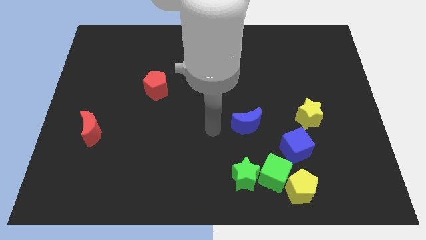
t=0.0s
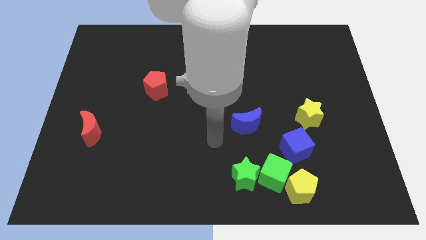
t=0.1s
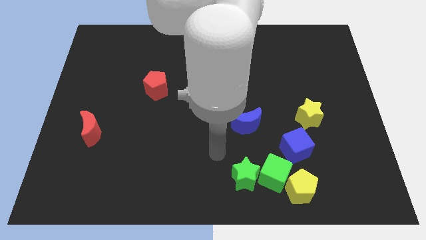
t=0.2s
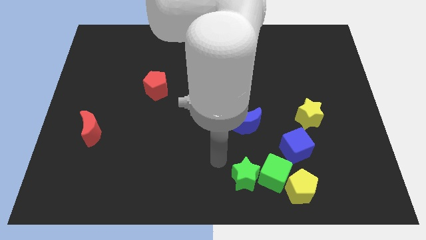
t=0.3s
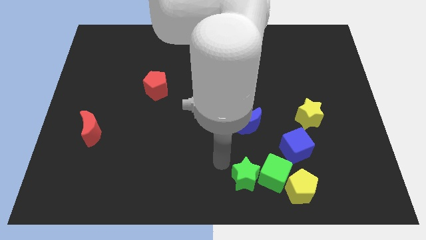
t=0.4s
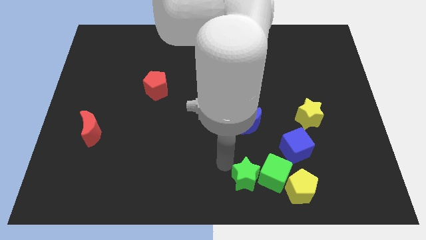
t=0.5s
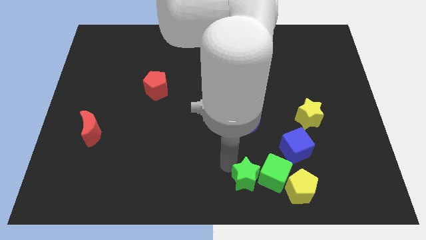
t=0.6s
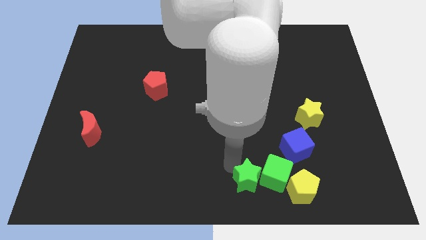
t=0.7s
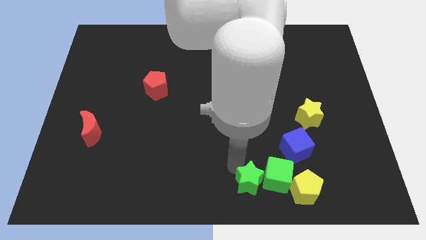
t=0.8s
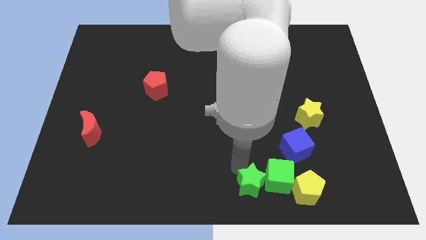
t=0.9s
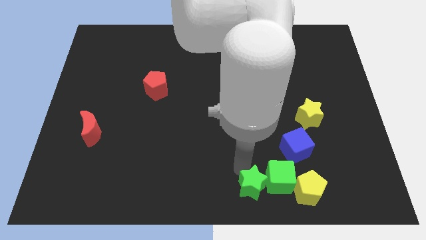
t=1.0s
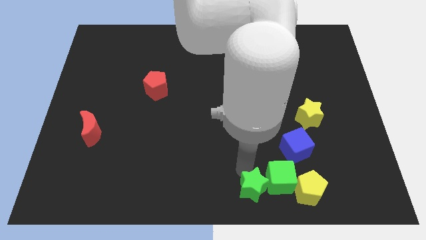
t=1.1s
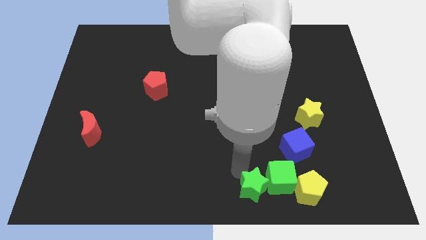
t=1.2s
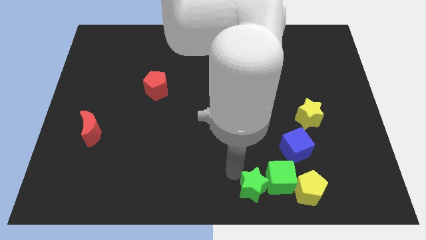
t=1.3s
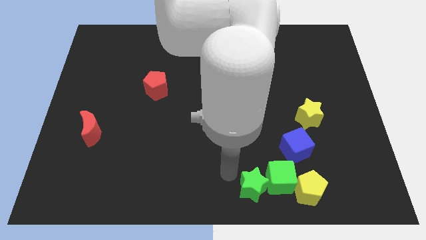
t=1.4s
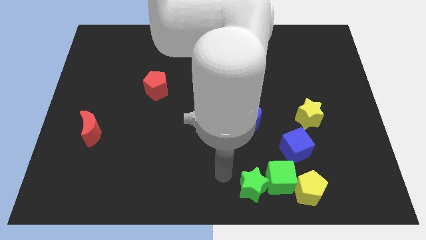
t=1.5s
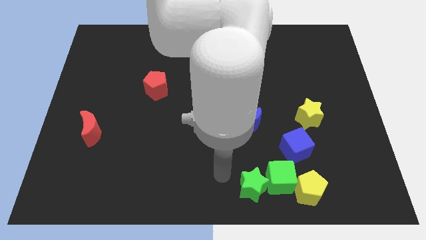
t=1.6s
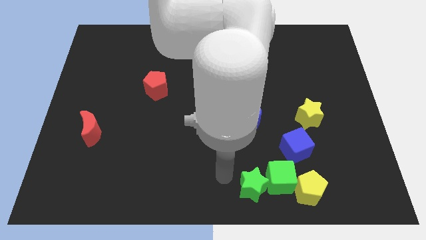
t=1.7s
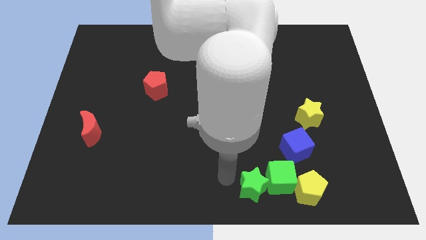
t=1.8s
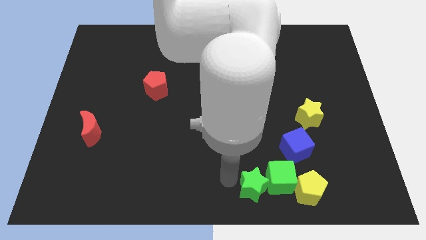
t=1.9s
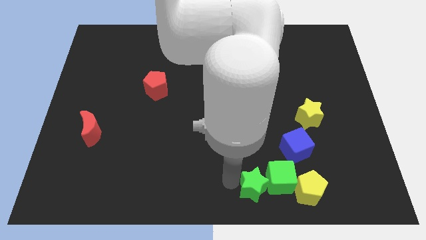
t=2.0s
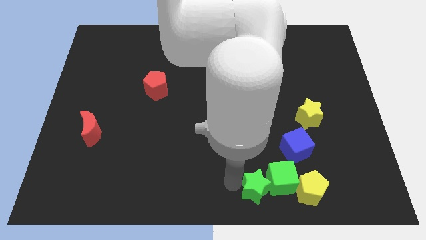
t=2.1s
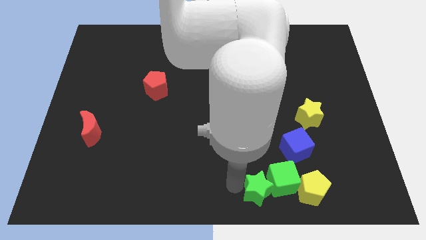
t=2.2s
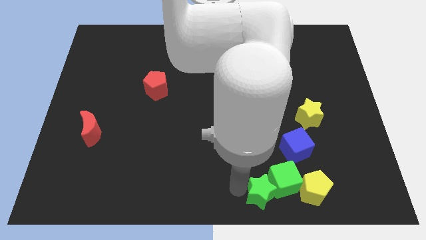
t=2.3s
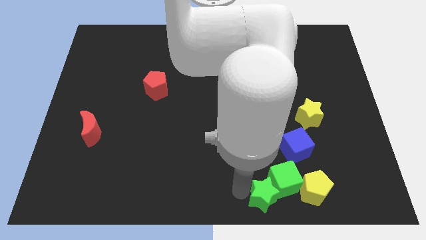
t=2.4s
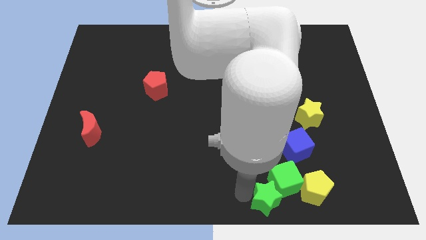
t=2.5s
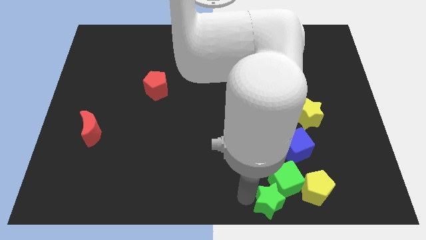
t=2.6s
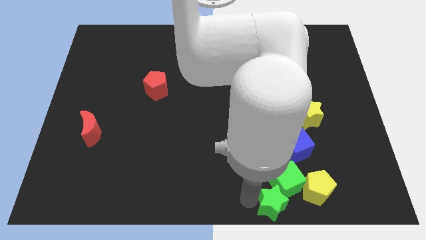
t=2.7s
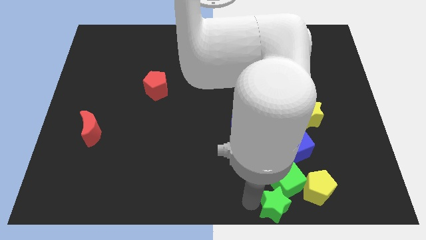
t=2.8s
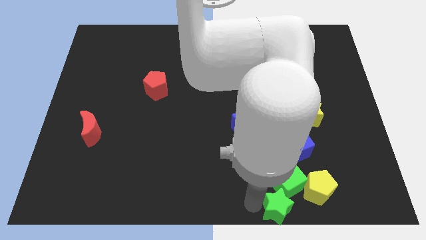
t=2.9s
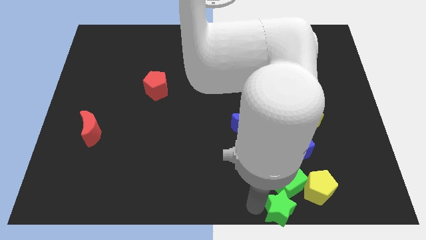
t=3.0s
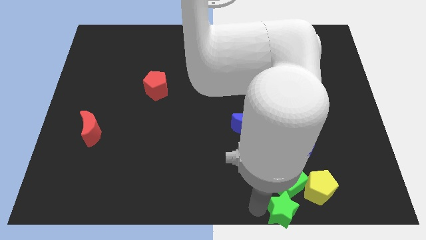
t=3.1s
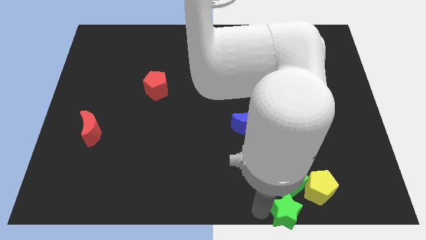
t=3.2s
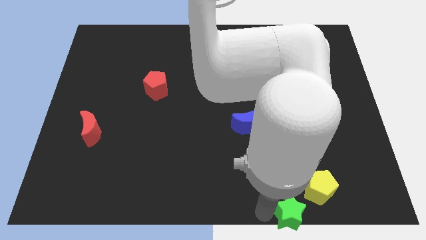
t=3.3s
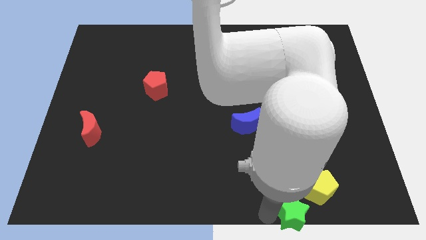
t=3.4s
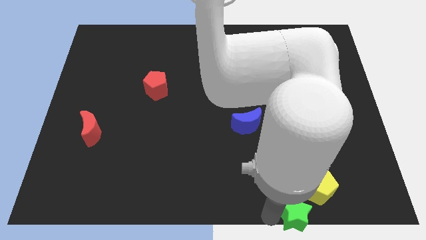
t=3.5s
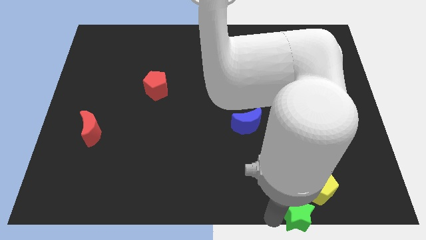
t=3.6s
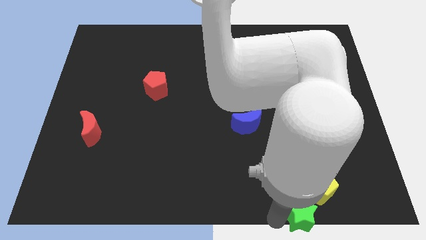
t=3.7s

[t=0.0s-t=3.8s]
slightly slide the green star to the right

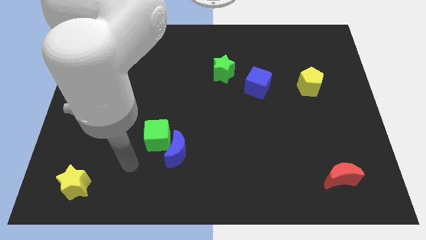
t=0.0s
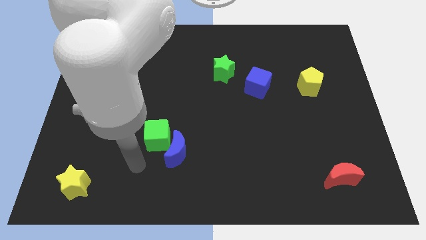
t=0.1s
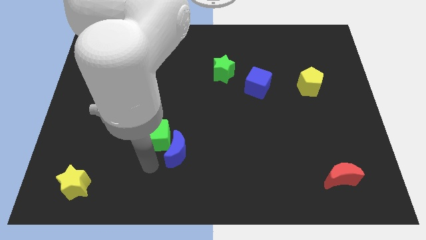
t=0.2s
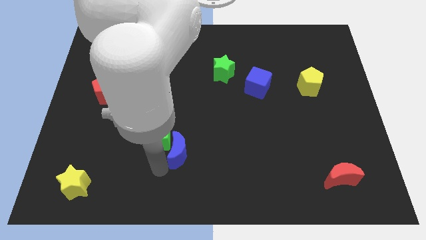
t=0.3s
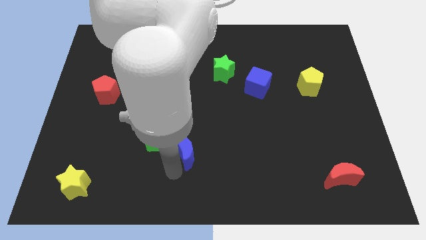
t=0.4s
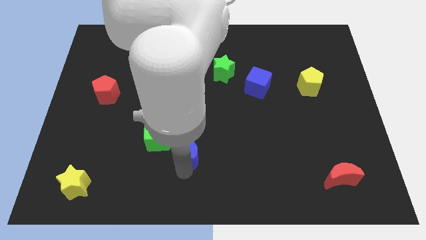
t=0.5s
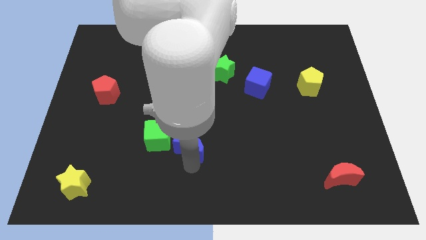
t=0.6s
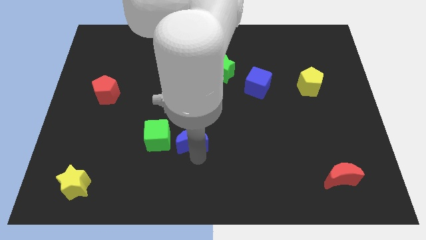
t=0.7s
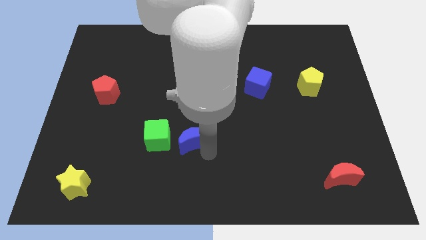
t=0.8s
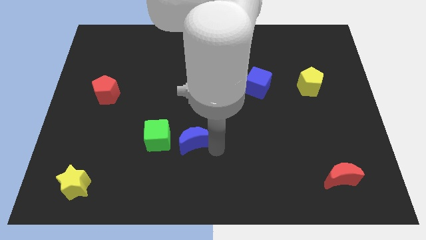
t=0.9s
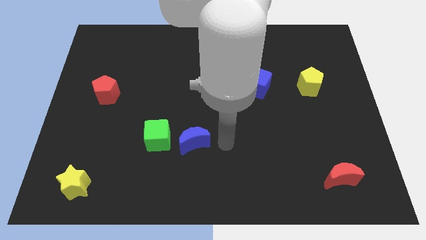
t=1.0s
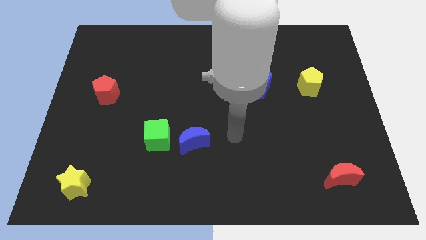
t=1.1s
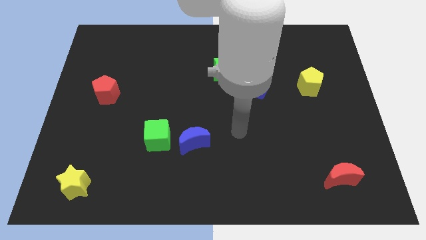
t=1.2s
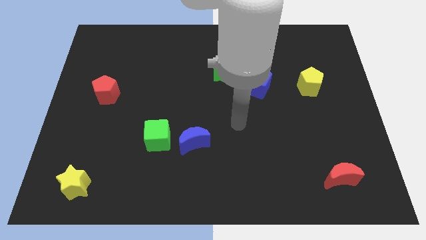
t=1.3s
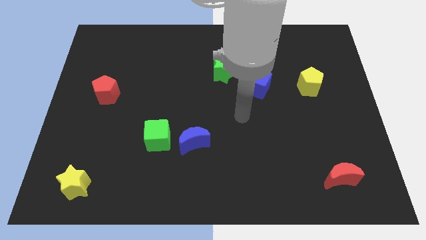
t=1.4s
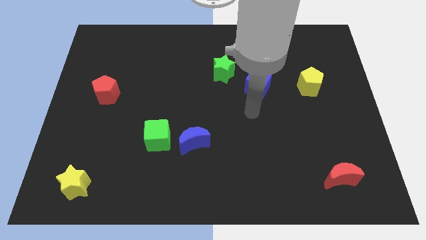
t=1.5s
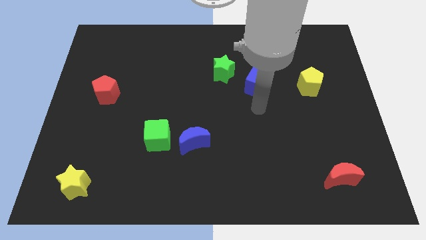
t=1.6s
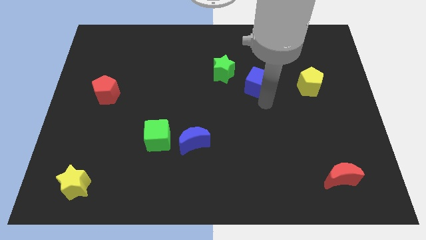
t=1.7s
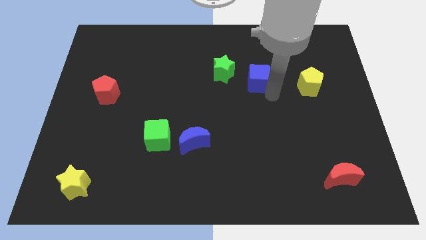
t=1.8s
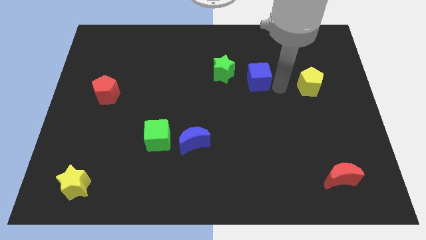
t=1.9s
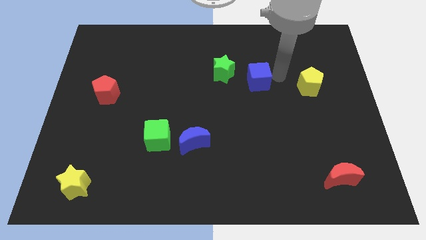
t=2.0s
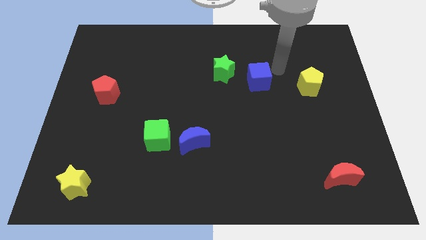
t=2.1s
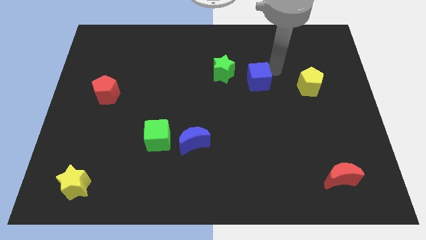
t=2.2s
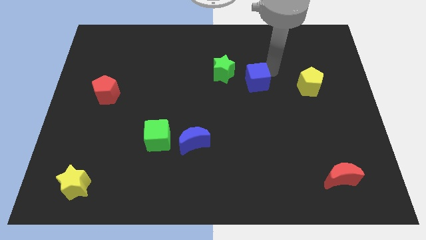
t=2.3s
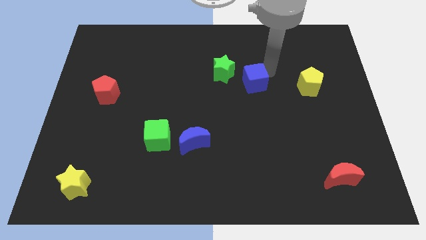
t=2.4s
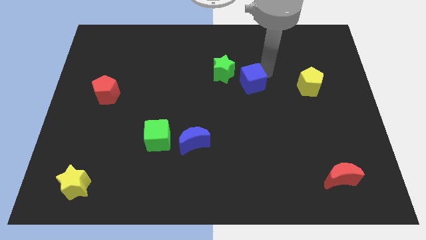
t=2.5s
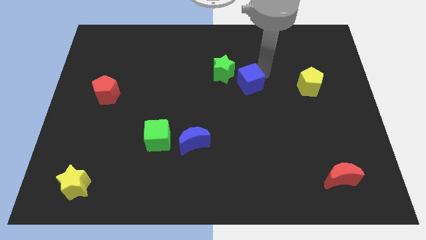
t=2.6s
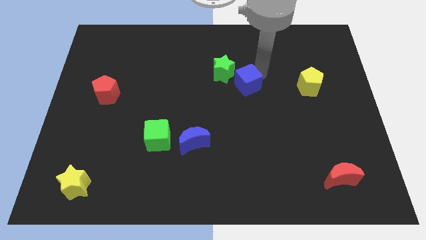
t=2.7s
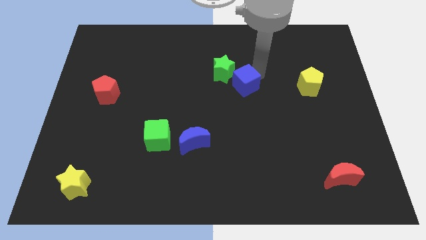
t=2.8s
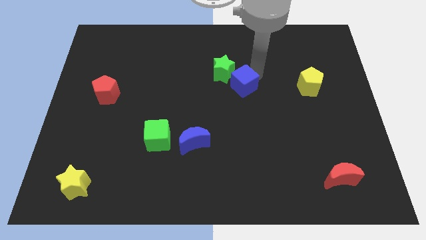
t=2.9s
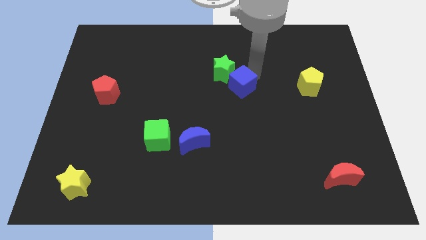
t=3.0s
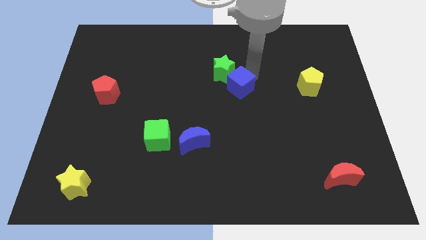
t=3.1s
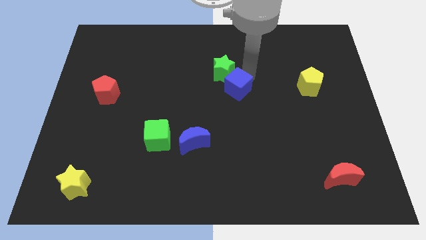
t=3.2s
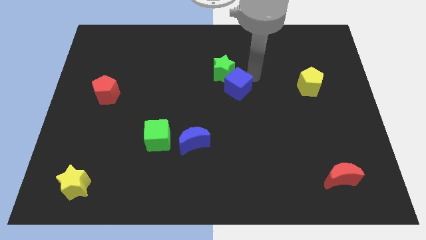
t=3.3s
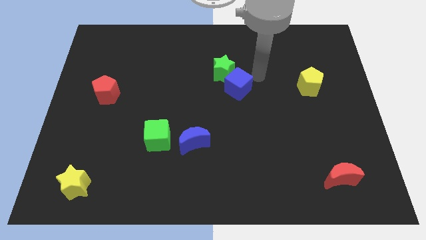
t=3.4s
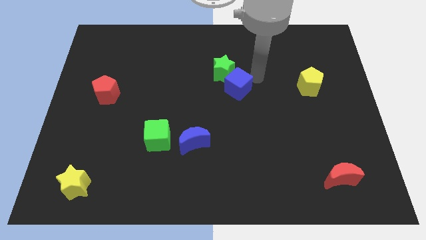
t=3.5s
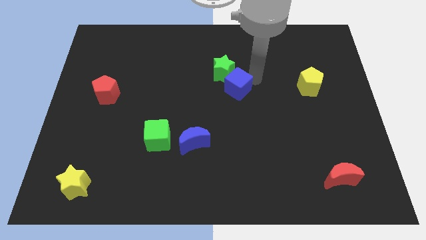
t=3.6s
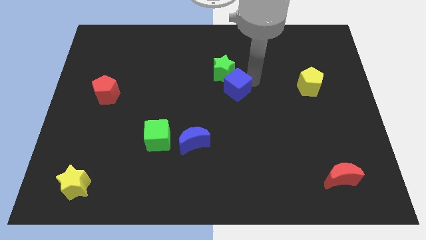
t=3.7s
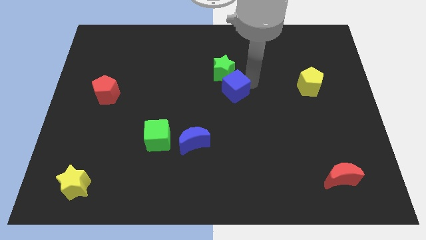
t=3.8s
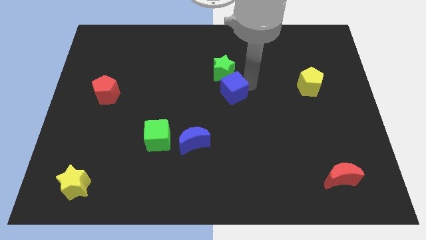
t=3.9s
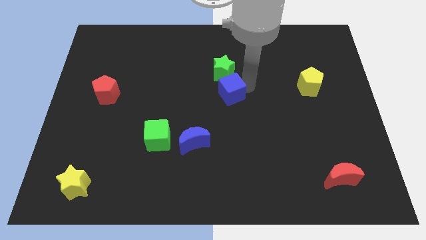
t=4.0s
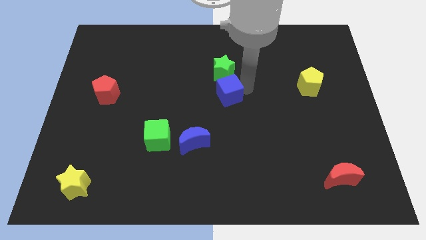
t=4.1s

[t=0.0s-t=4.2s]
slide the blue cube somewhat to the left

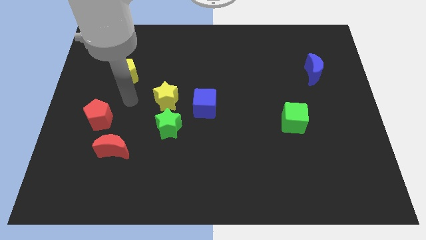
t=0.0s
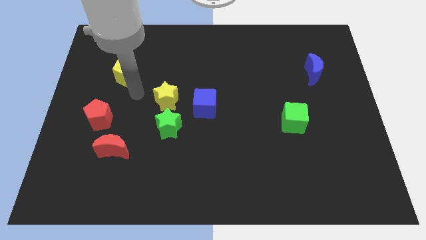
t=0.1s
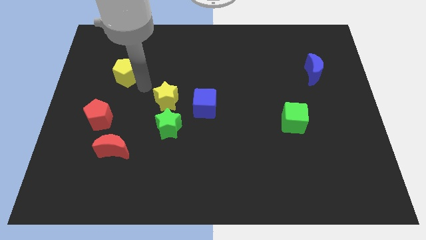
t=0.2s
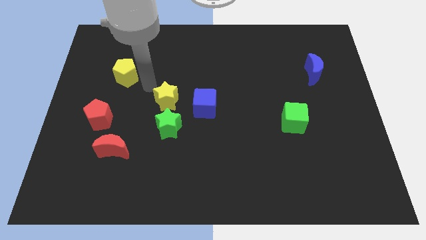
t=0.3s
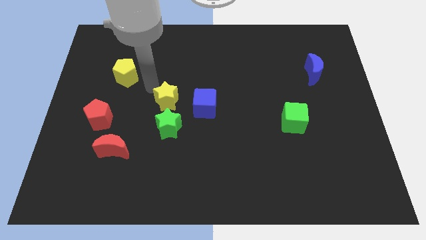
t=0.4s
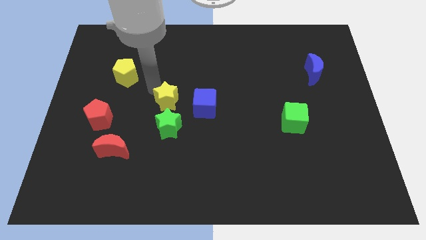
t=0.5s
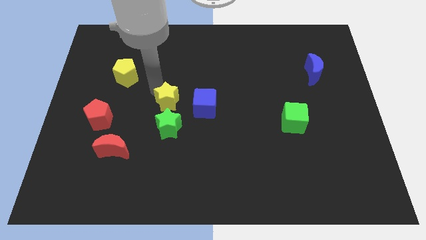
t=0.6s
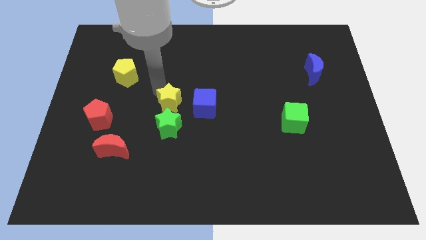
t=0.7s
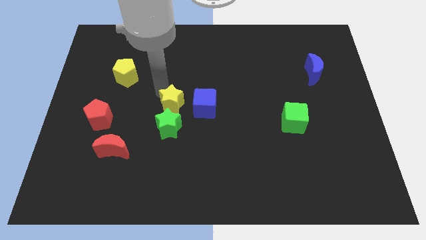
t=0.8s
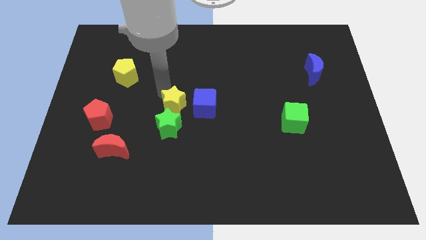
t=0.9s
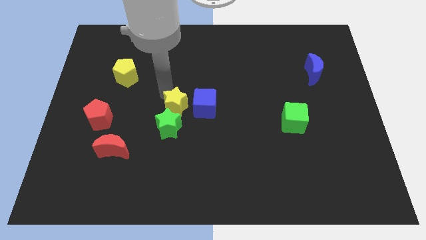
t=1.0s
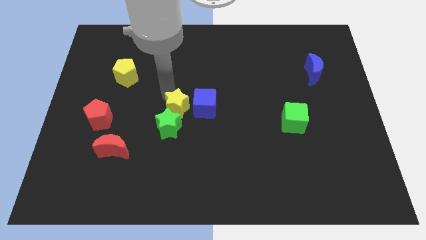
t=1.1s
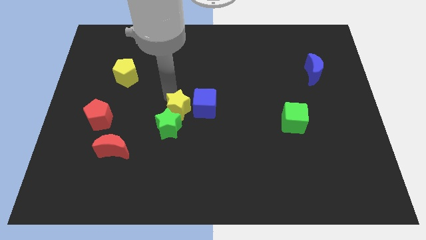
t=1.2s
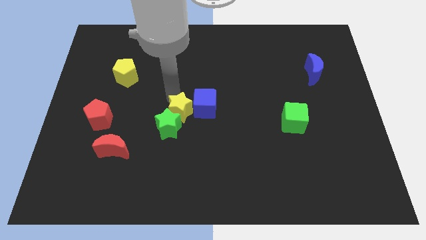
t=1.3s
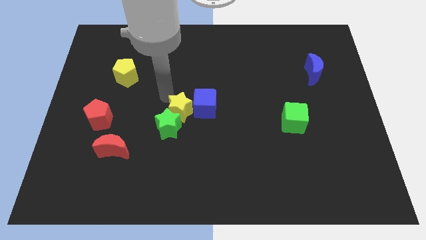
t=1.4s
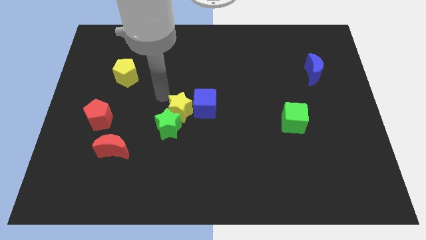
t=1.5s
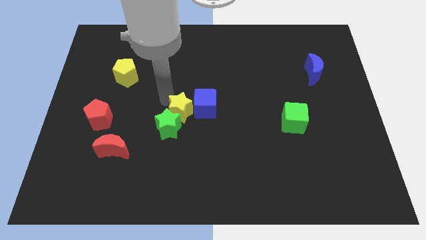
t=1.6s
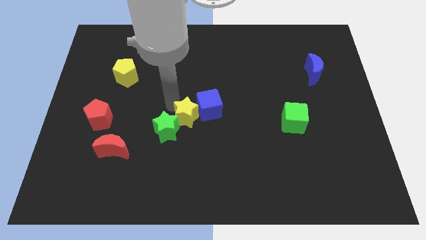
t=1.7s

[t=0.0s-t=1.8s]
slightly move the yellow star downwards and right diagonally
